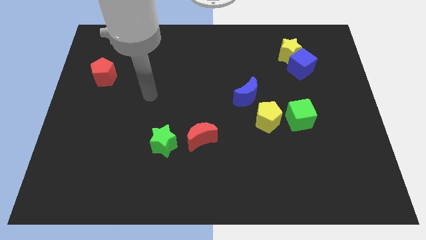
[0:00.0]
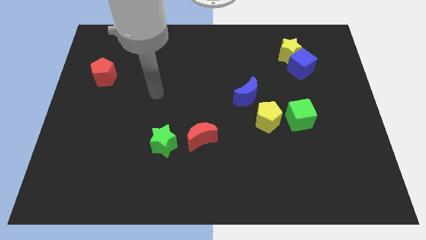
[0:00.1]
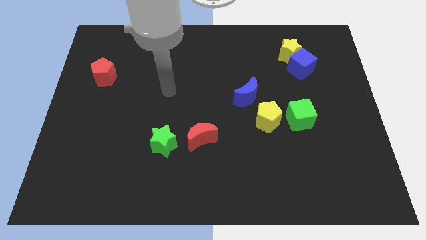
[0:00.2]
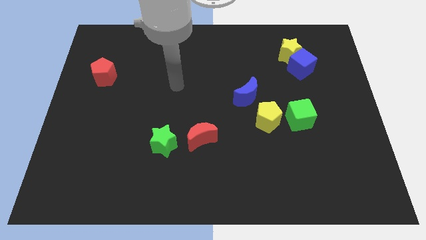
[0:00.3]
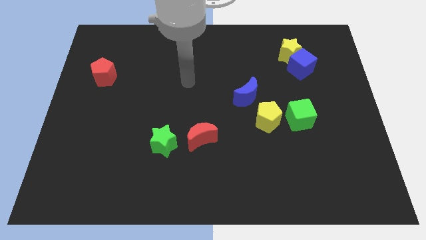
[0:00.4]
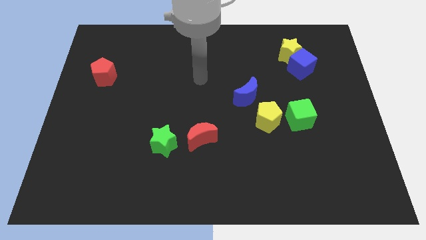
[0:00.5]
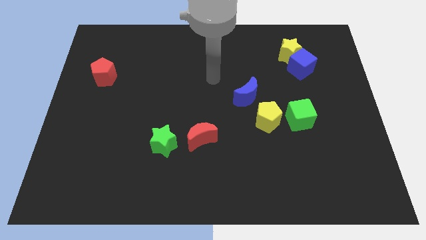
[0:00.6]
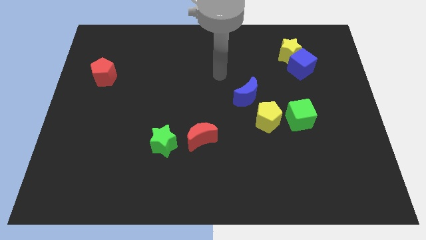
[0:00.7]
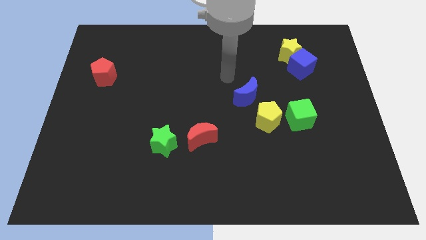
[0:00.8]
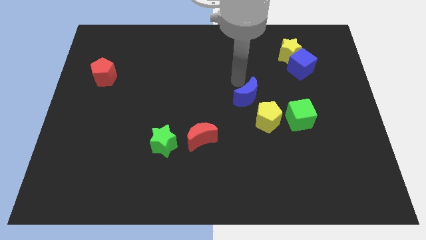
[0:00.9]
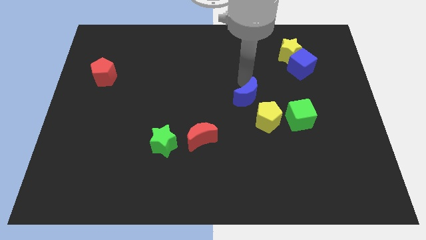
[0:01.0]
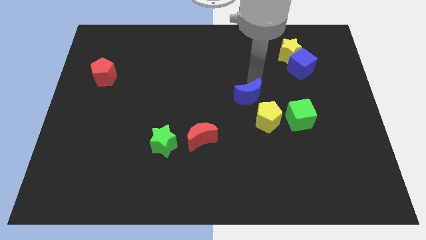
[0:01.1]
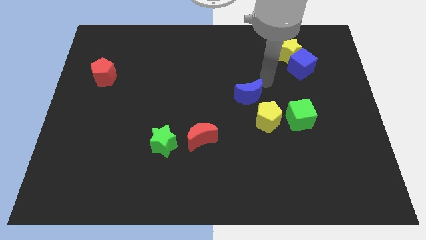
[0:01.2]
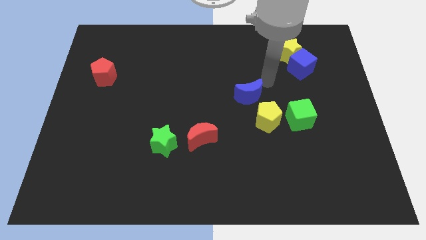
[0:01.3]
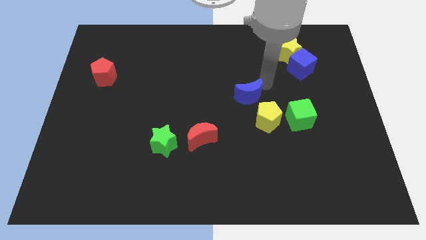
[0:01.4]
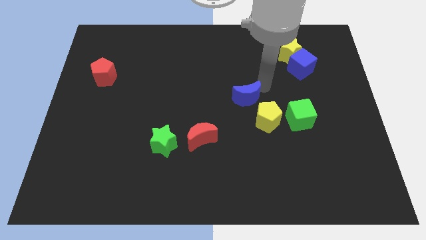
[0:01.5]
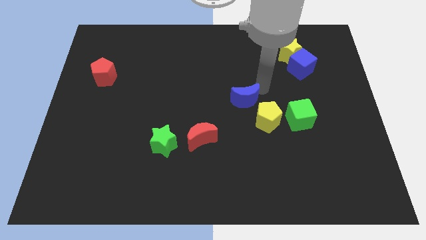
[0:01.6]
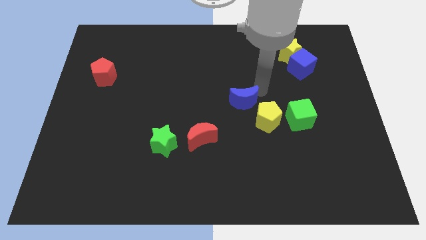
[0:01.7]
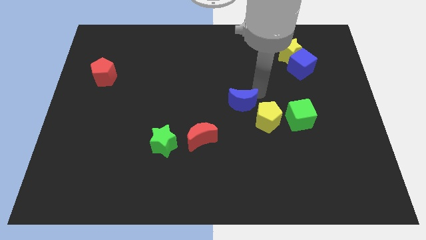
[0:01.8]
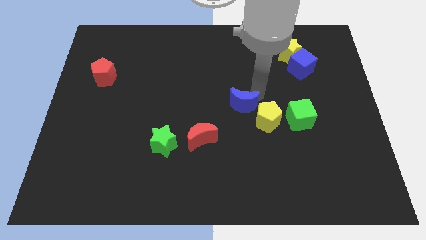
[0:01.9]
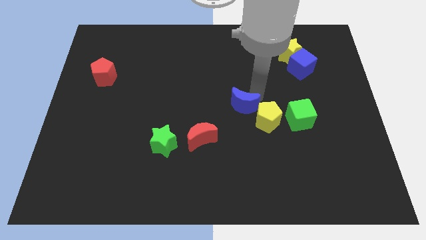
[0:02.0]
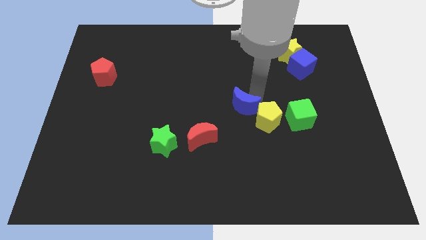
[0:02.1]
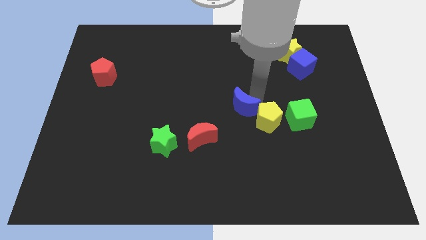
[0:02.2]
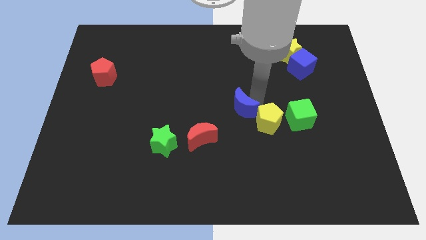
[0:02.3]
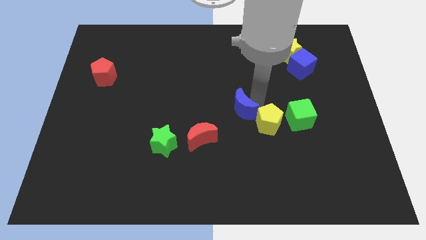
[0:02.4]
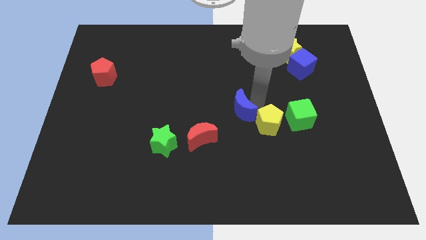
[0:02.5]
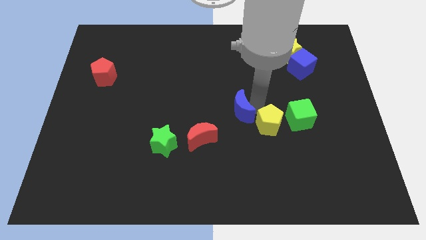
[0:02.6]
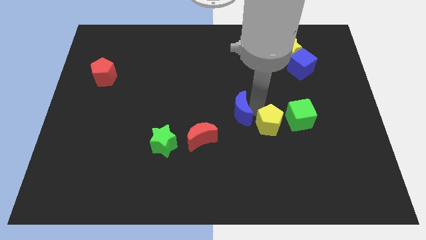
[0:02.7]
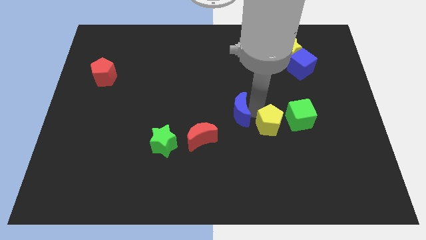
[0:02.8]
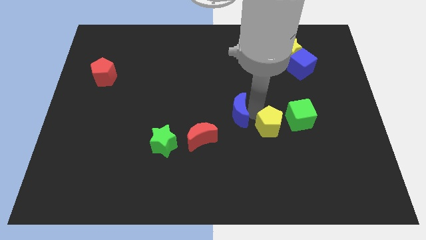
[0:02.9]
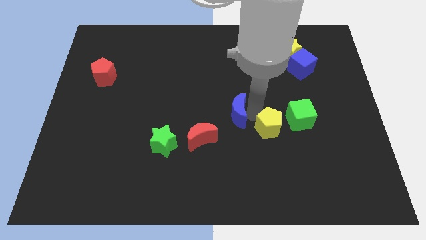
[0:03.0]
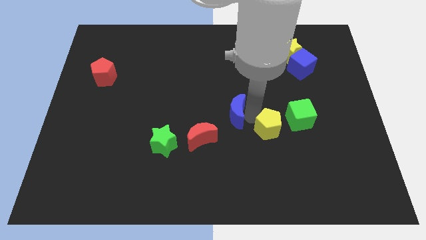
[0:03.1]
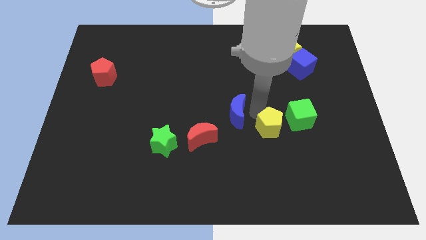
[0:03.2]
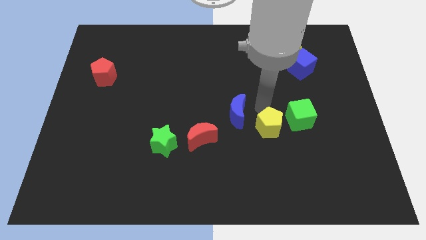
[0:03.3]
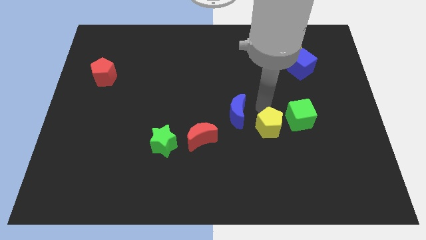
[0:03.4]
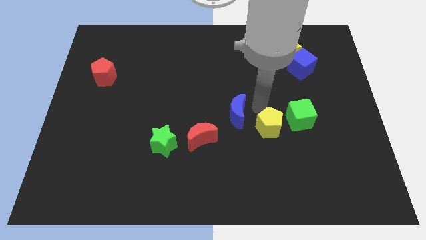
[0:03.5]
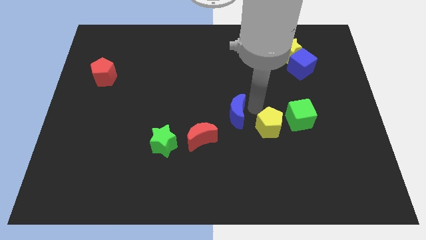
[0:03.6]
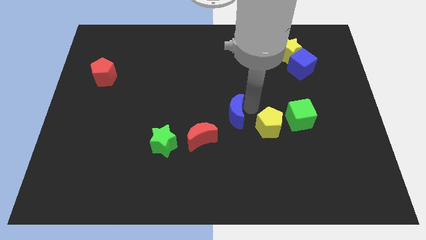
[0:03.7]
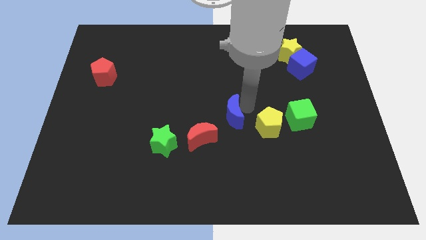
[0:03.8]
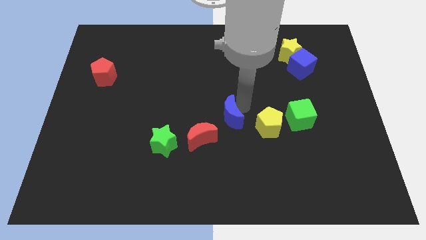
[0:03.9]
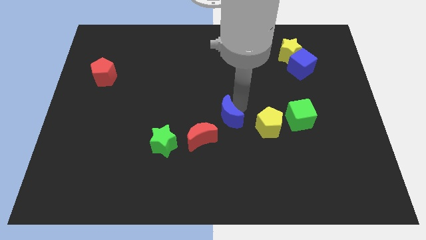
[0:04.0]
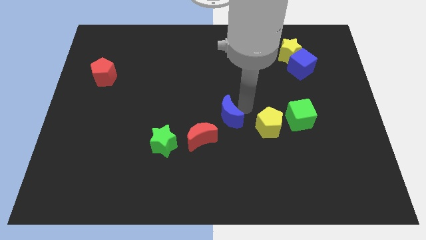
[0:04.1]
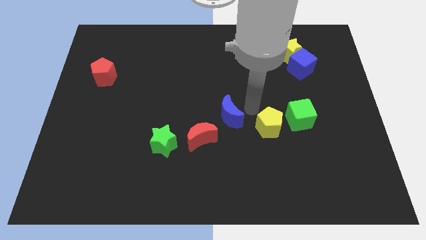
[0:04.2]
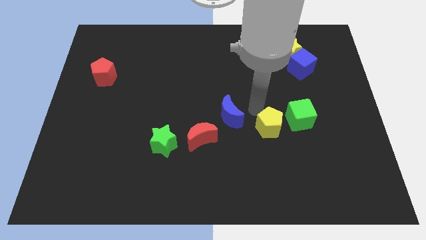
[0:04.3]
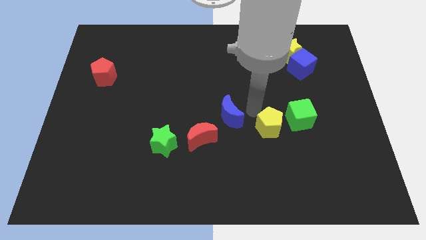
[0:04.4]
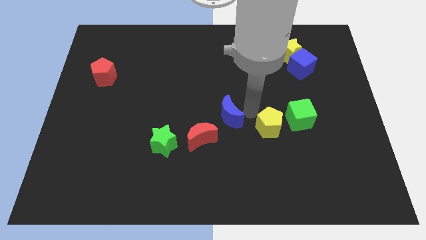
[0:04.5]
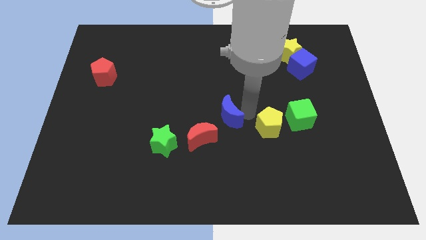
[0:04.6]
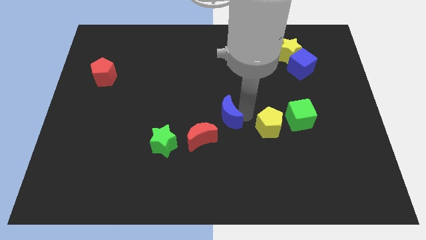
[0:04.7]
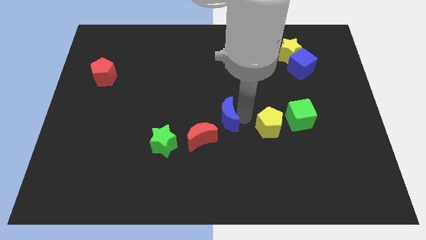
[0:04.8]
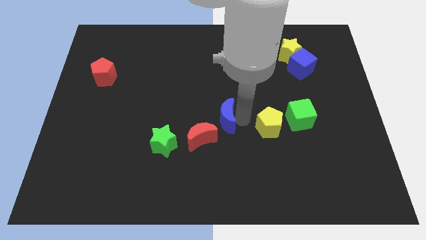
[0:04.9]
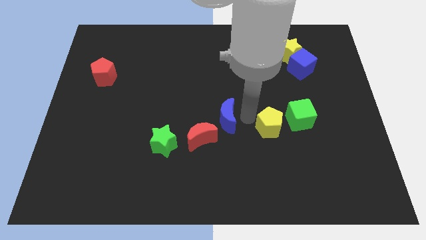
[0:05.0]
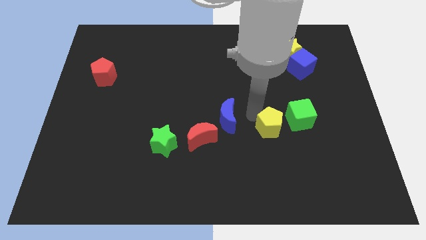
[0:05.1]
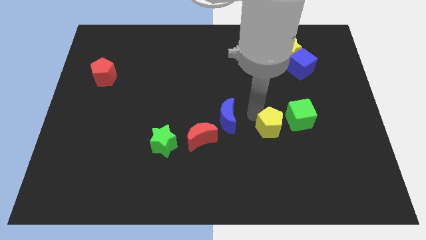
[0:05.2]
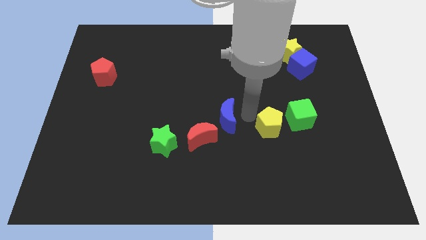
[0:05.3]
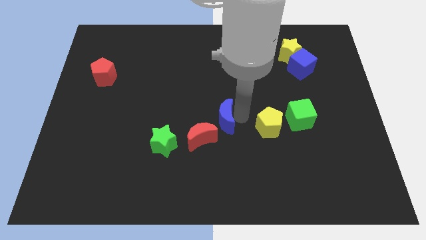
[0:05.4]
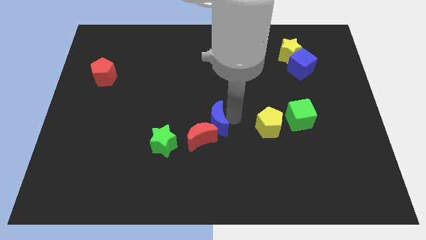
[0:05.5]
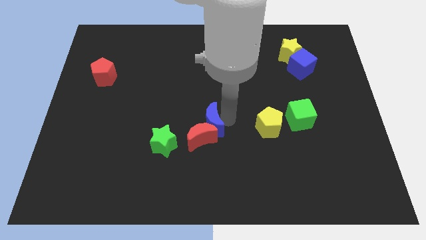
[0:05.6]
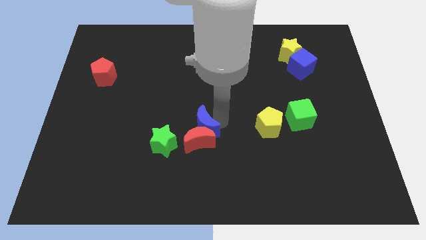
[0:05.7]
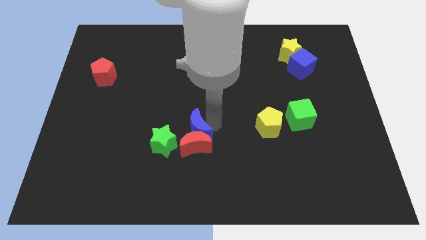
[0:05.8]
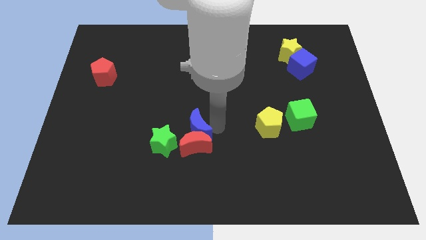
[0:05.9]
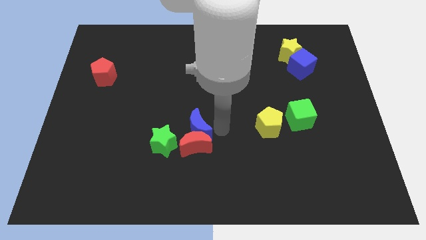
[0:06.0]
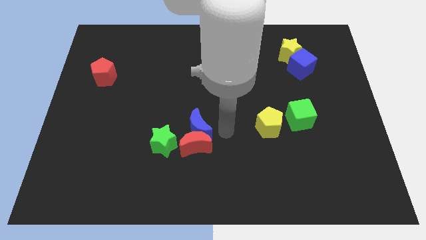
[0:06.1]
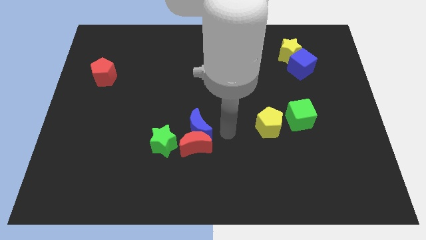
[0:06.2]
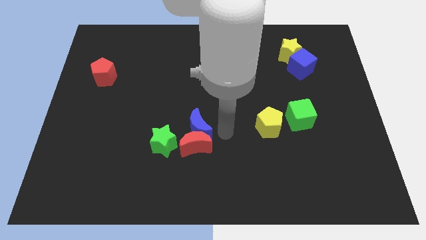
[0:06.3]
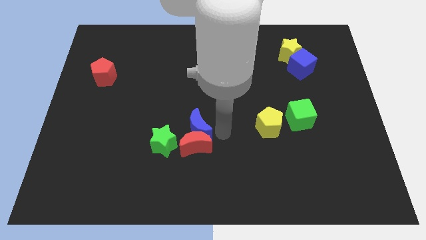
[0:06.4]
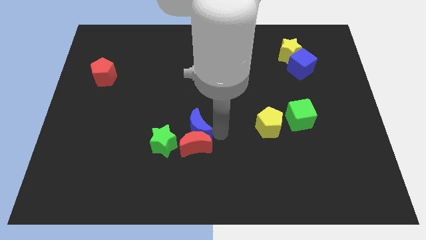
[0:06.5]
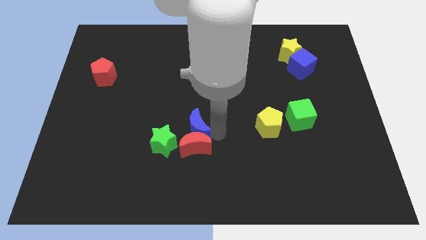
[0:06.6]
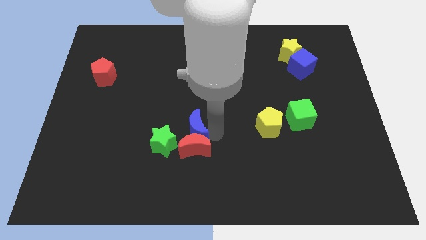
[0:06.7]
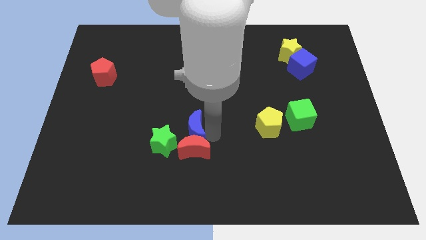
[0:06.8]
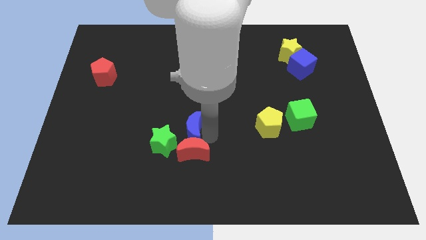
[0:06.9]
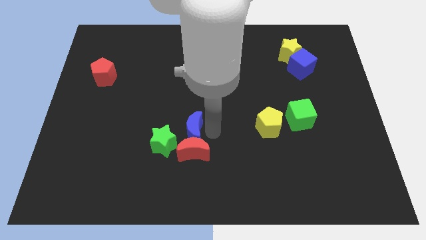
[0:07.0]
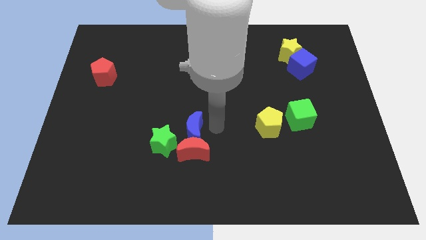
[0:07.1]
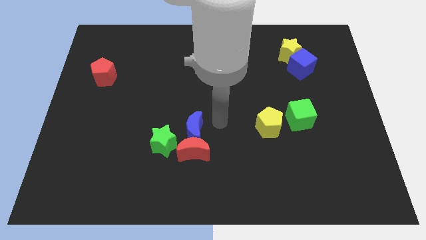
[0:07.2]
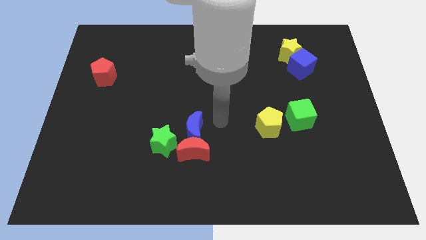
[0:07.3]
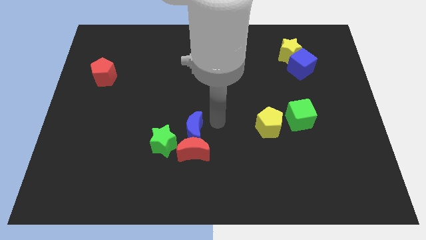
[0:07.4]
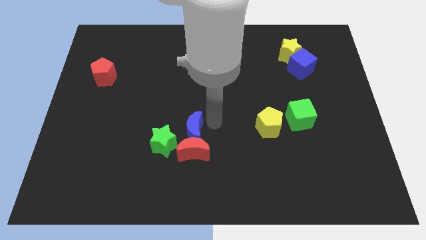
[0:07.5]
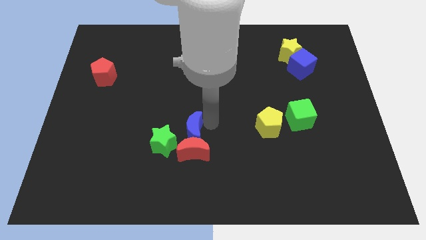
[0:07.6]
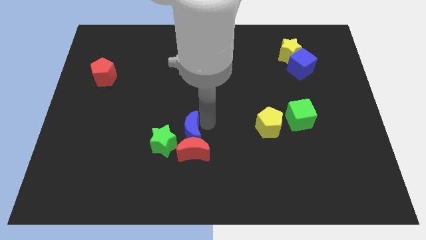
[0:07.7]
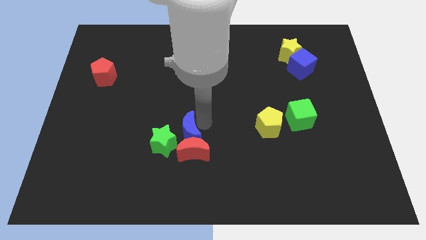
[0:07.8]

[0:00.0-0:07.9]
move the blue moon to the green star
